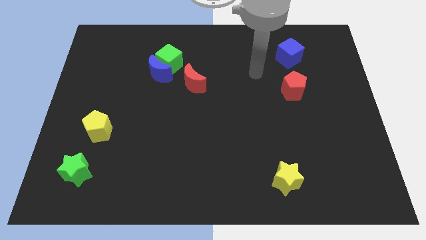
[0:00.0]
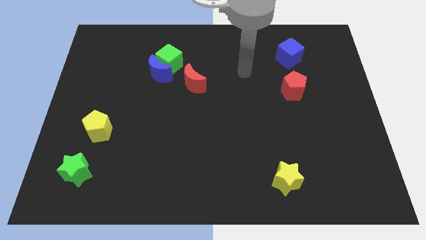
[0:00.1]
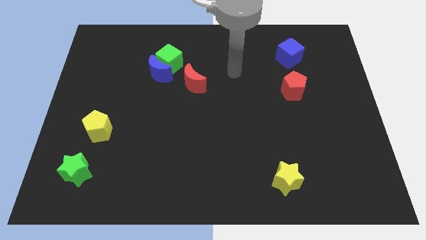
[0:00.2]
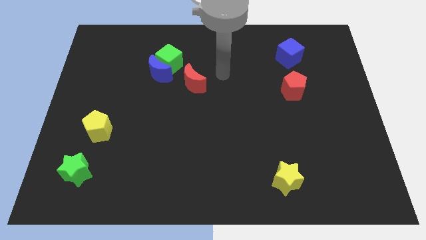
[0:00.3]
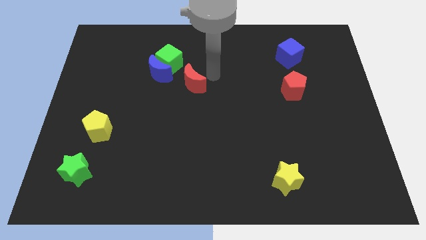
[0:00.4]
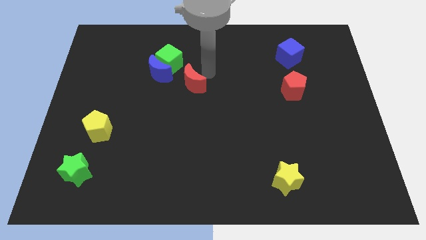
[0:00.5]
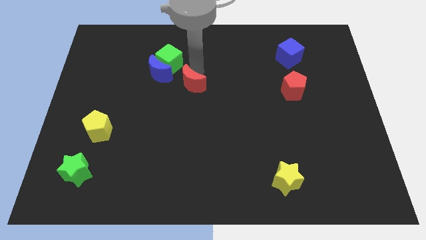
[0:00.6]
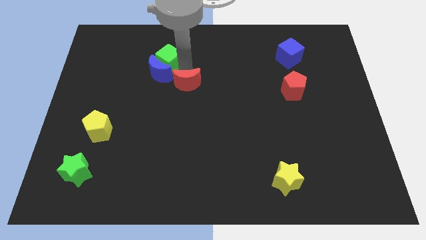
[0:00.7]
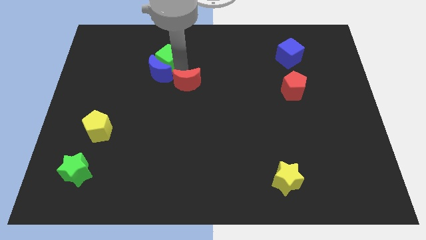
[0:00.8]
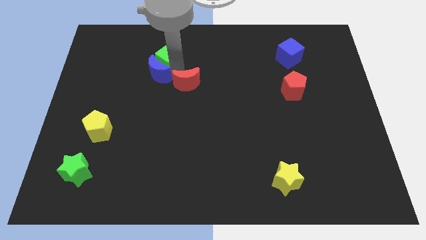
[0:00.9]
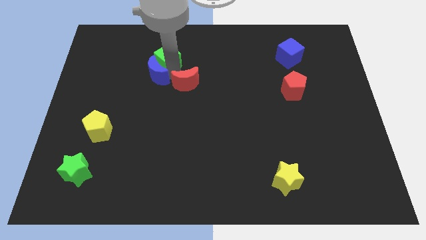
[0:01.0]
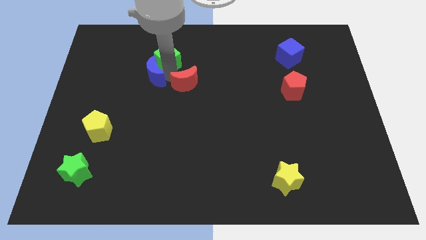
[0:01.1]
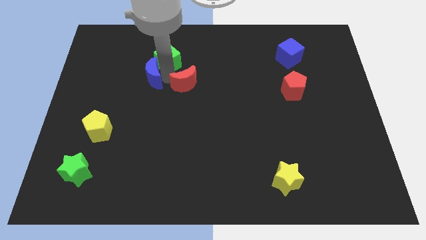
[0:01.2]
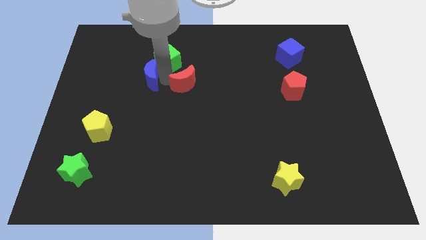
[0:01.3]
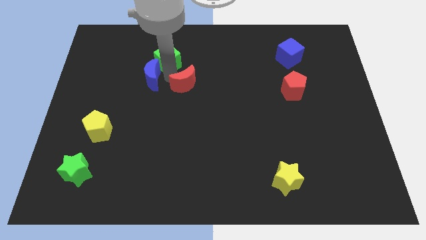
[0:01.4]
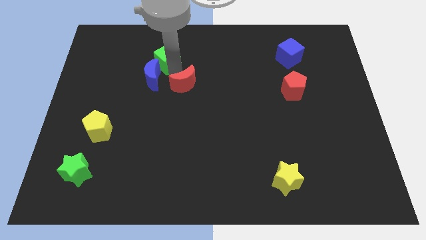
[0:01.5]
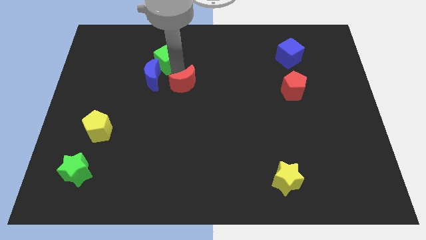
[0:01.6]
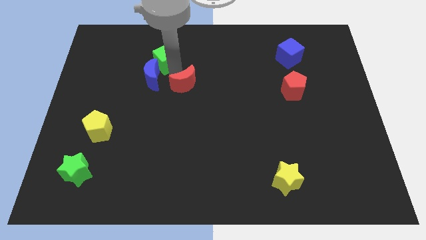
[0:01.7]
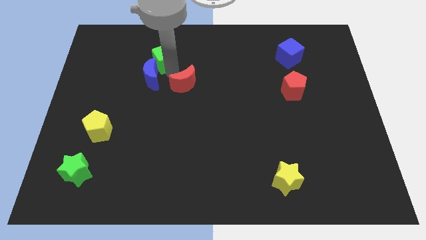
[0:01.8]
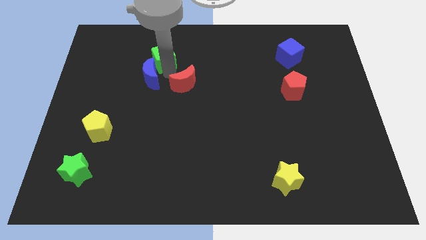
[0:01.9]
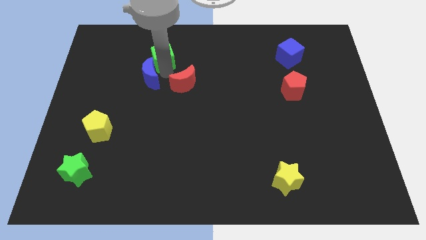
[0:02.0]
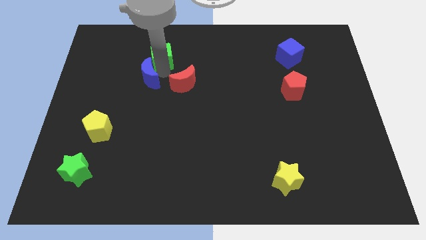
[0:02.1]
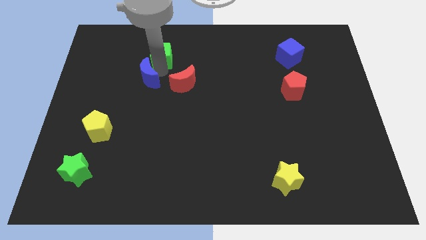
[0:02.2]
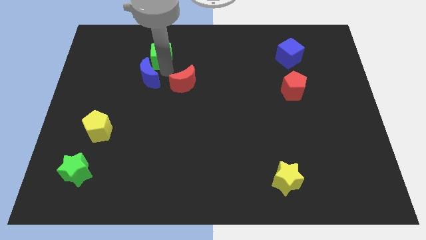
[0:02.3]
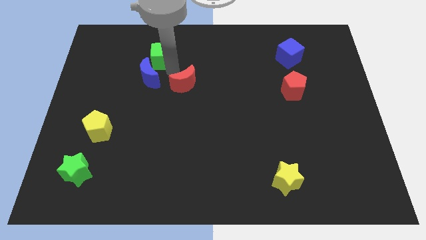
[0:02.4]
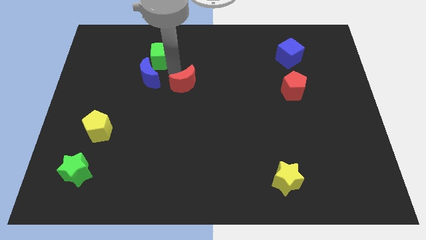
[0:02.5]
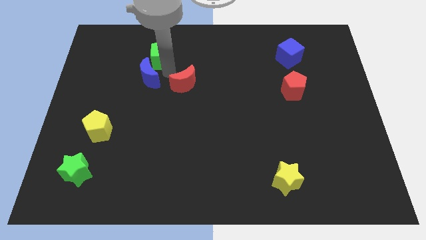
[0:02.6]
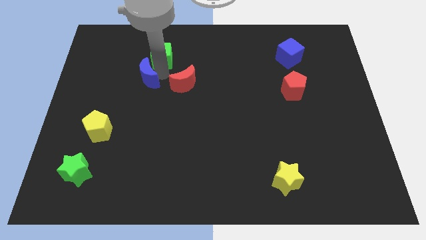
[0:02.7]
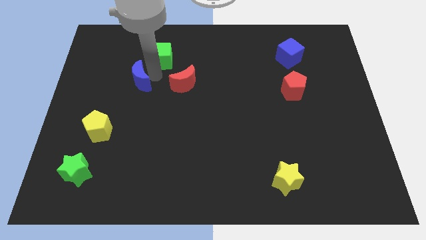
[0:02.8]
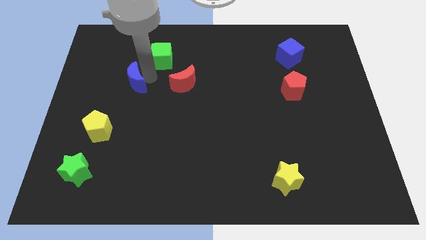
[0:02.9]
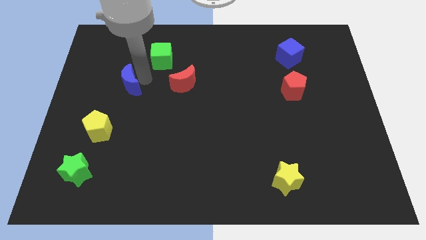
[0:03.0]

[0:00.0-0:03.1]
pull the blue moon apart from the green cube and red moon

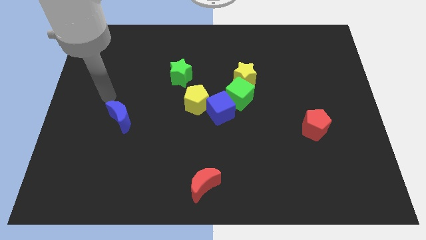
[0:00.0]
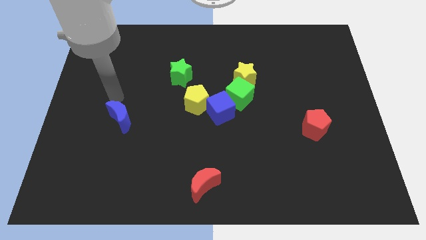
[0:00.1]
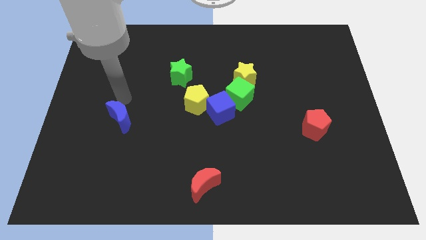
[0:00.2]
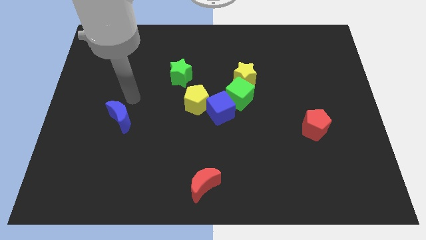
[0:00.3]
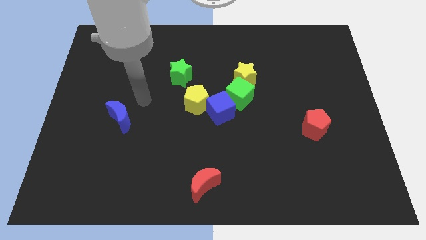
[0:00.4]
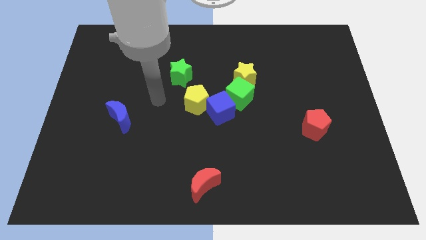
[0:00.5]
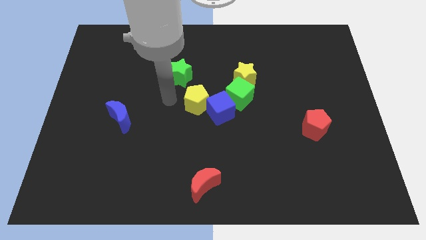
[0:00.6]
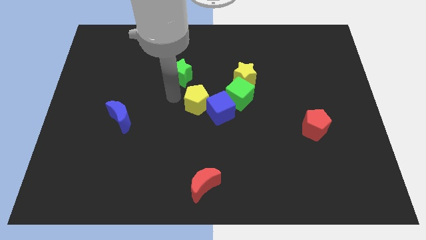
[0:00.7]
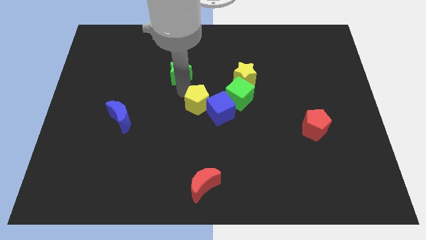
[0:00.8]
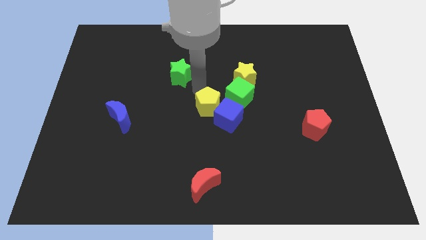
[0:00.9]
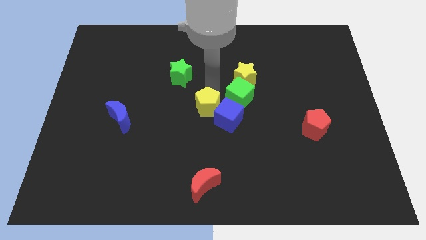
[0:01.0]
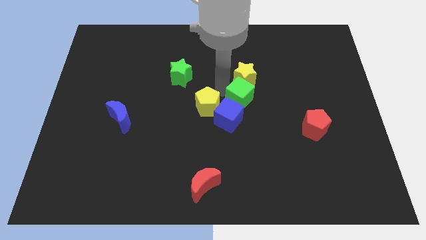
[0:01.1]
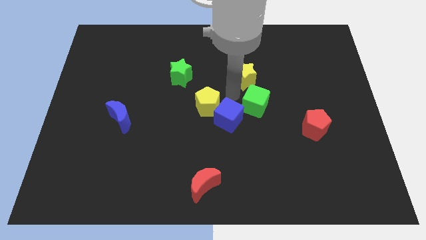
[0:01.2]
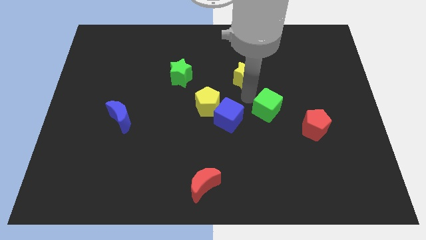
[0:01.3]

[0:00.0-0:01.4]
pull the yellow star apart from the green cube

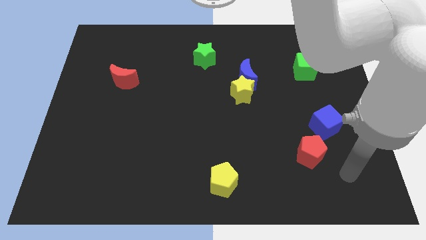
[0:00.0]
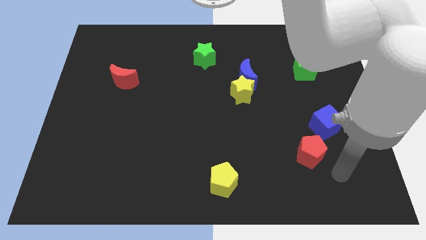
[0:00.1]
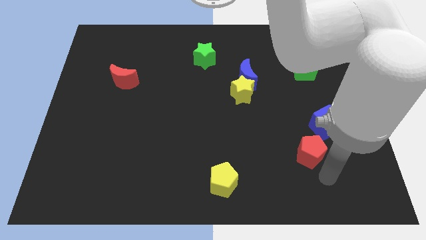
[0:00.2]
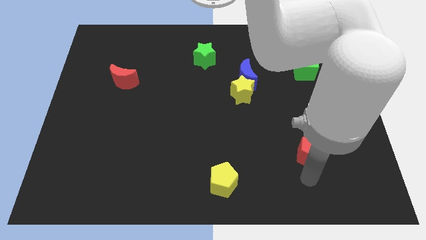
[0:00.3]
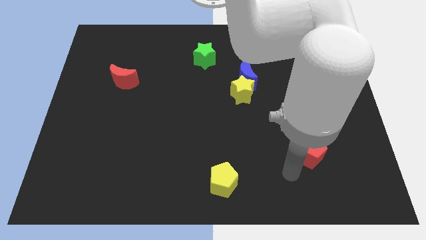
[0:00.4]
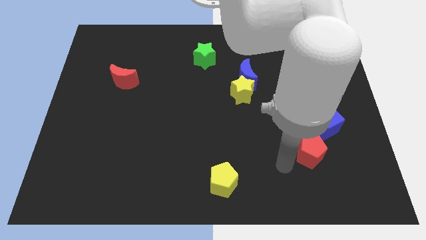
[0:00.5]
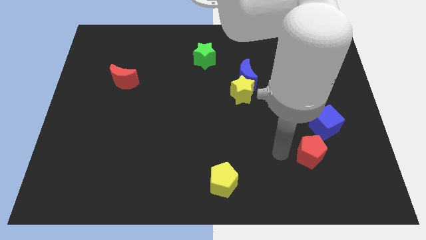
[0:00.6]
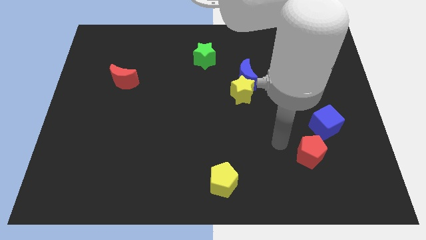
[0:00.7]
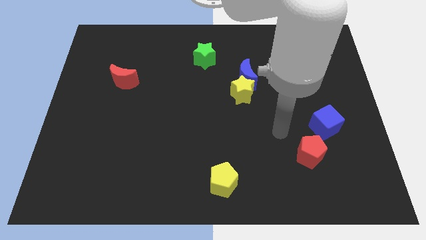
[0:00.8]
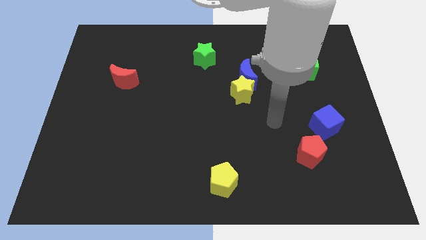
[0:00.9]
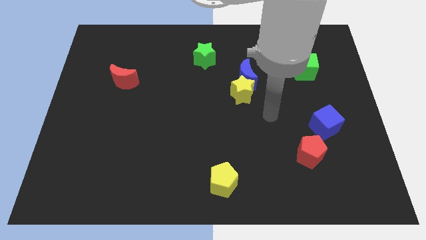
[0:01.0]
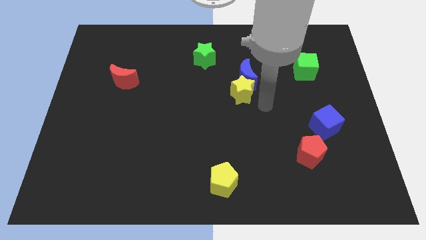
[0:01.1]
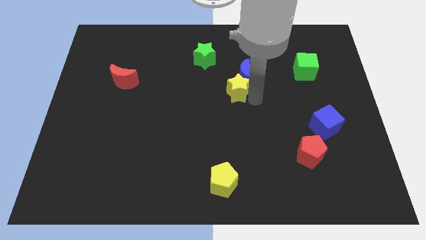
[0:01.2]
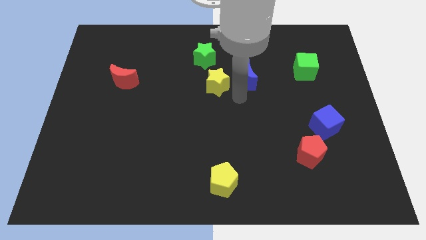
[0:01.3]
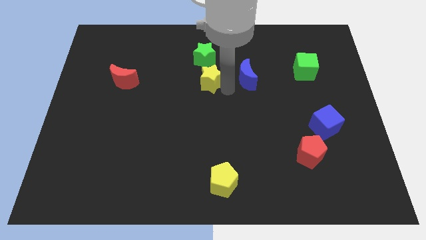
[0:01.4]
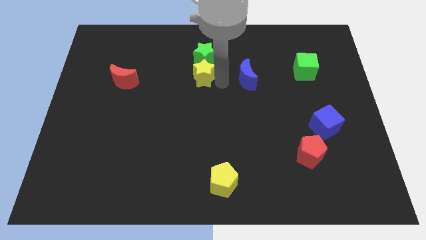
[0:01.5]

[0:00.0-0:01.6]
pull the blue moon apart from the yellow star

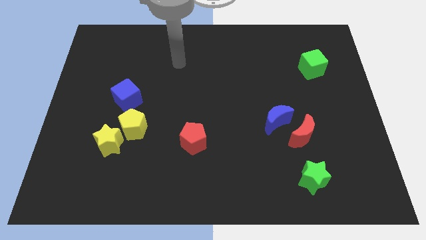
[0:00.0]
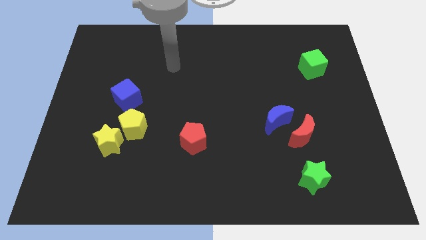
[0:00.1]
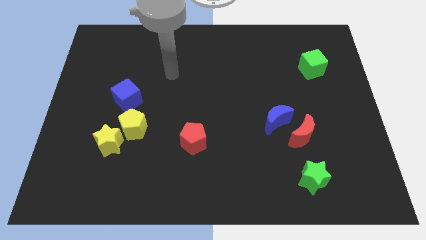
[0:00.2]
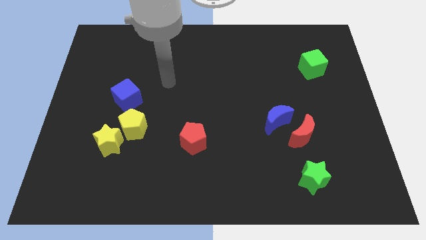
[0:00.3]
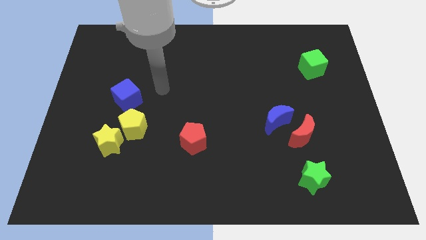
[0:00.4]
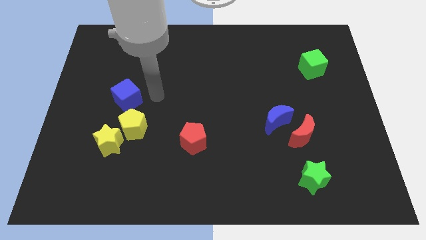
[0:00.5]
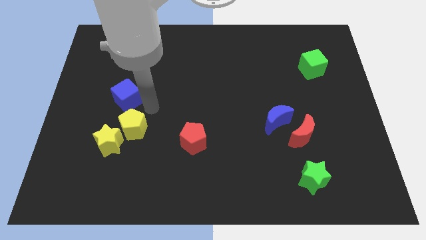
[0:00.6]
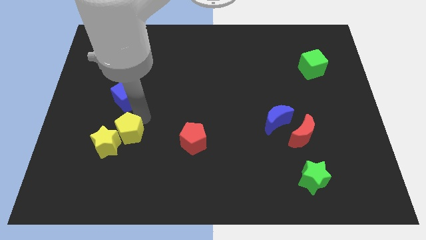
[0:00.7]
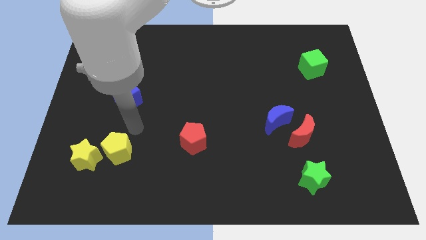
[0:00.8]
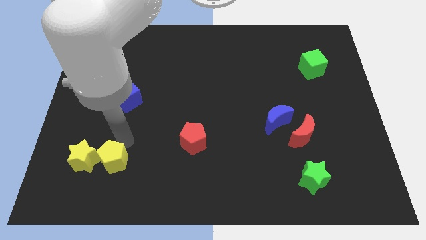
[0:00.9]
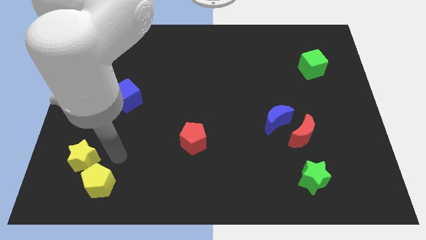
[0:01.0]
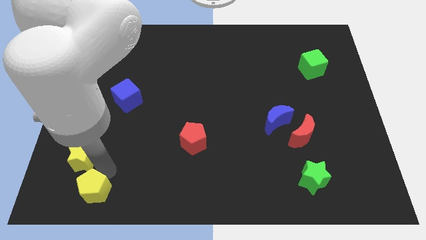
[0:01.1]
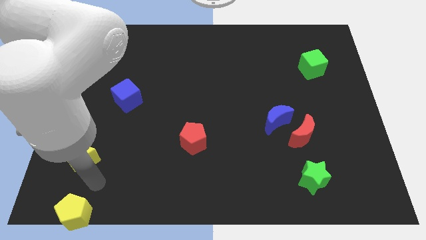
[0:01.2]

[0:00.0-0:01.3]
move the yellow star away from the yellow pentagon

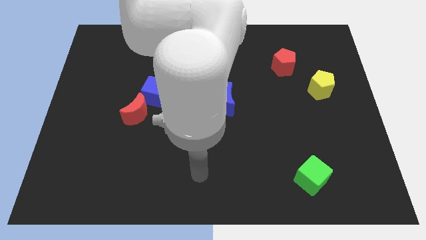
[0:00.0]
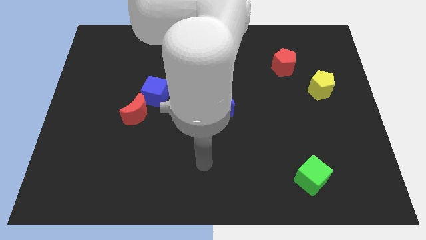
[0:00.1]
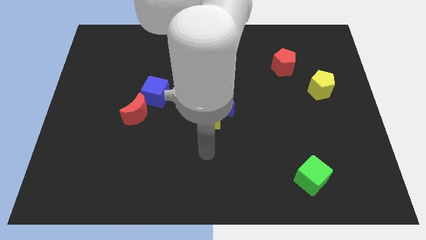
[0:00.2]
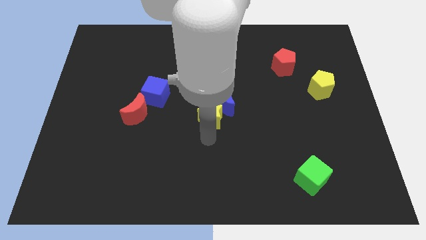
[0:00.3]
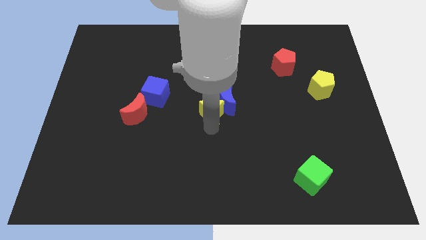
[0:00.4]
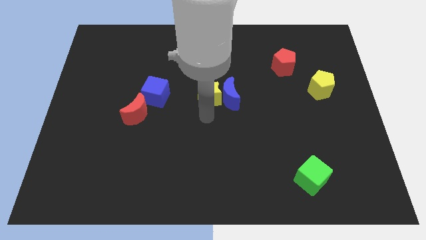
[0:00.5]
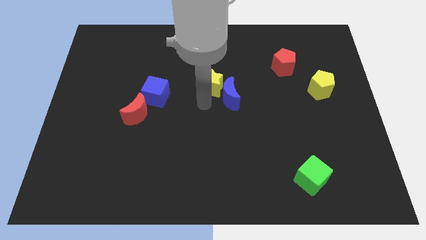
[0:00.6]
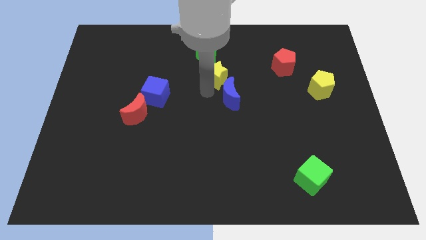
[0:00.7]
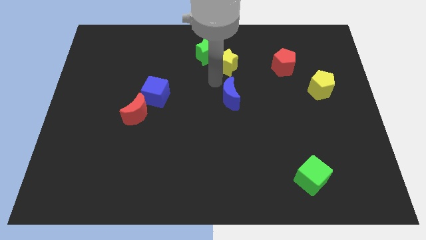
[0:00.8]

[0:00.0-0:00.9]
move the blue moon away from the yellow star

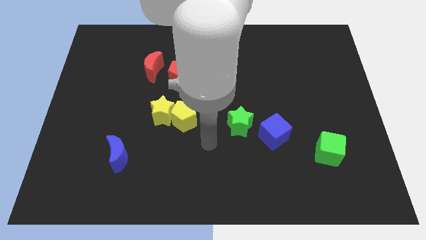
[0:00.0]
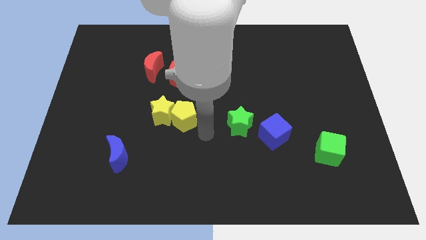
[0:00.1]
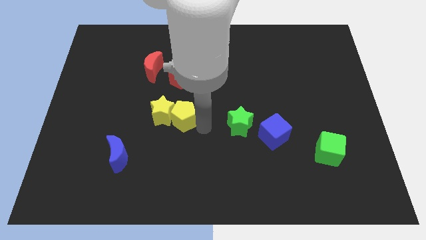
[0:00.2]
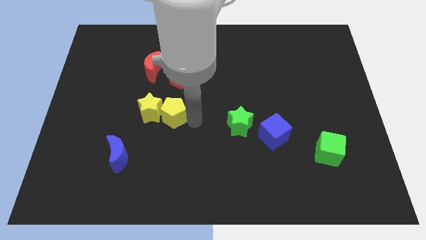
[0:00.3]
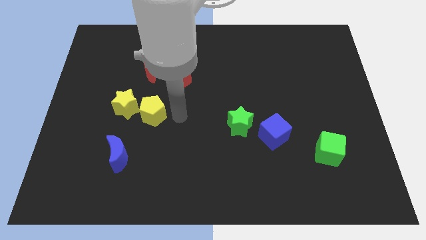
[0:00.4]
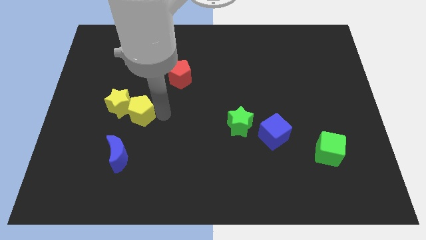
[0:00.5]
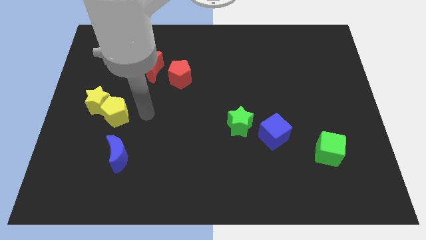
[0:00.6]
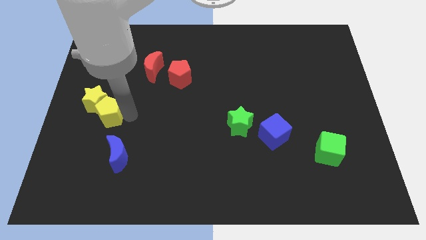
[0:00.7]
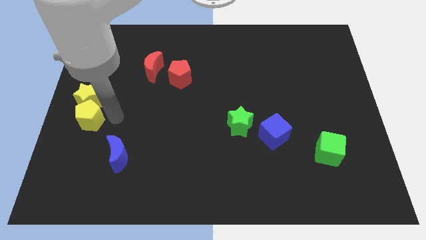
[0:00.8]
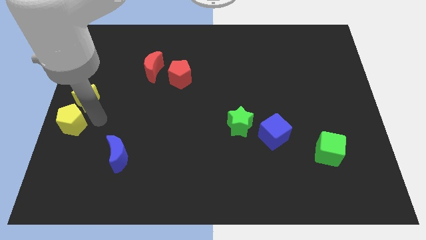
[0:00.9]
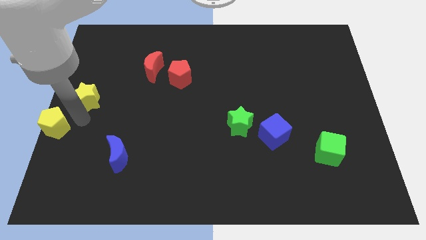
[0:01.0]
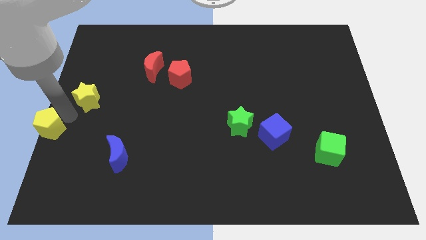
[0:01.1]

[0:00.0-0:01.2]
pull the yellow star apart from the yellow pentagon
